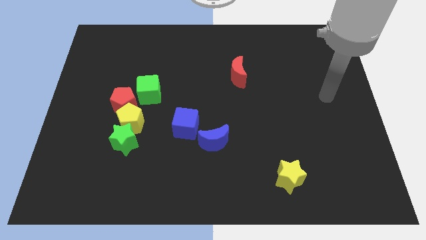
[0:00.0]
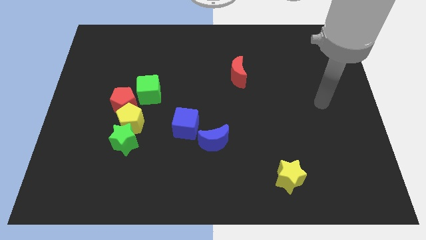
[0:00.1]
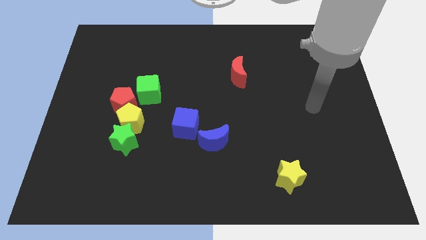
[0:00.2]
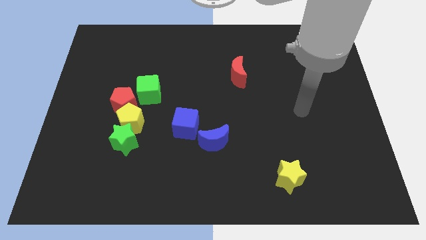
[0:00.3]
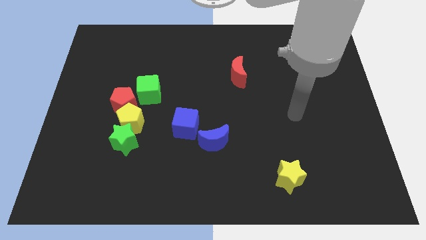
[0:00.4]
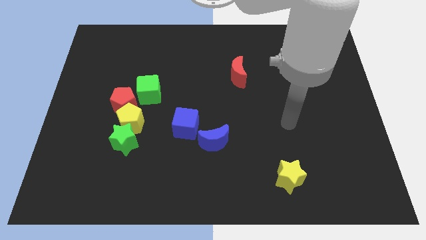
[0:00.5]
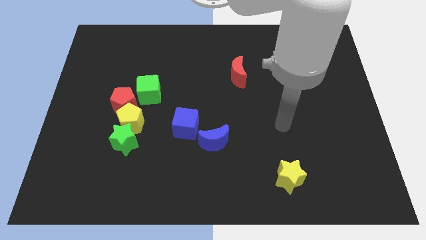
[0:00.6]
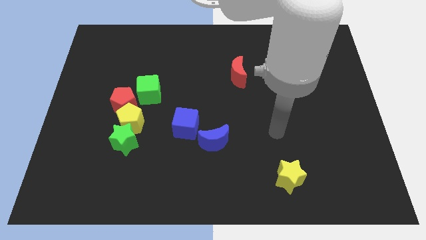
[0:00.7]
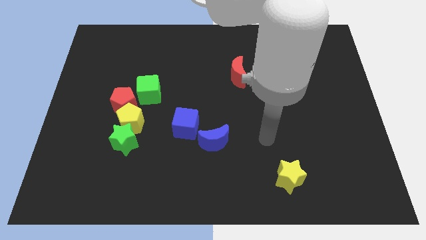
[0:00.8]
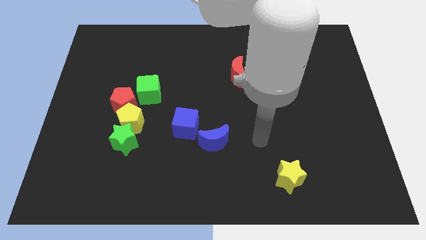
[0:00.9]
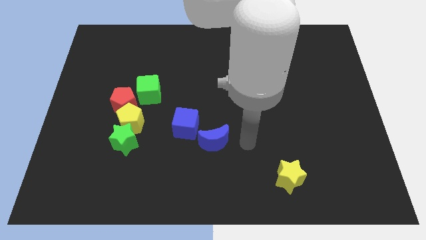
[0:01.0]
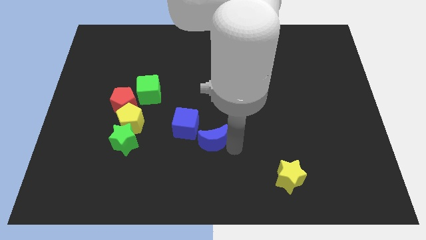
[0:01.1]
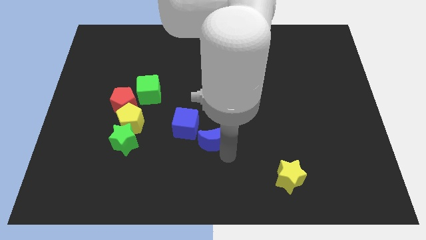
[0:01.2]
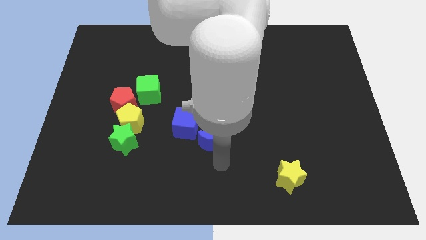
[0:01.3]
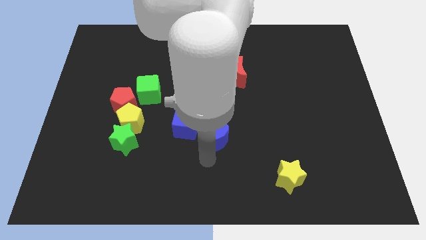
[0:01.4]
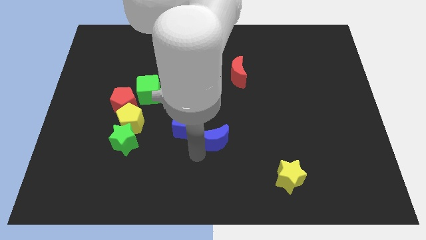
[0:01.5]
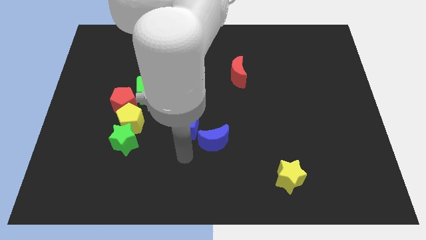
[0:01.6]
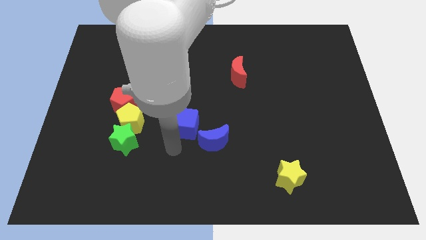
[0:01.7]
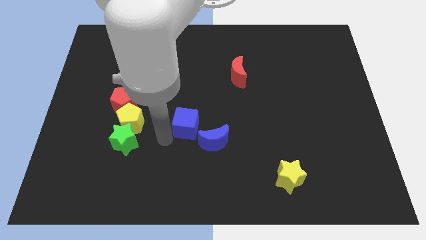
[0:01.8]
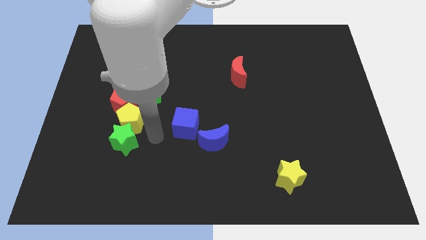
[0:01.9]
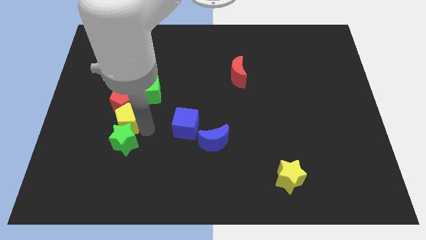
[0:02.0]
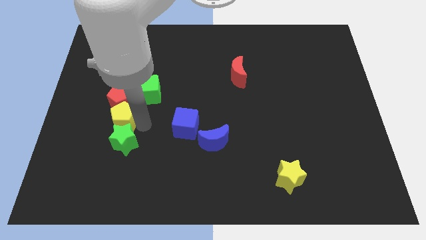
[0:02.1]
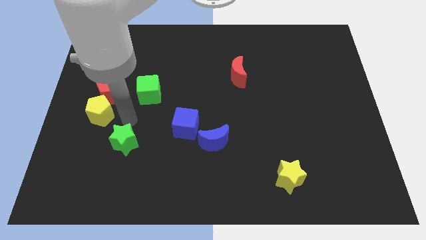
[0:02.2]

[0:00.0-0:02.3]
separate the green star from the yellow pentagon

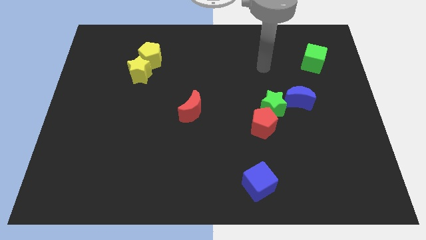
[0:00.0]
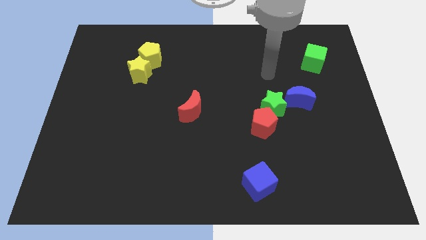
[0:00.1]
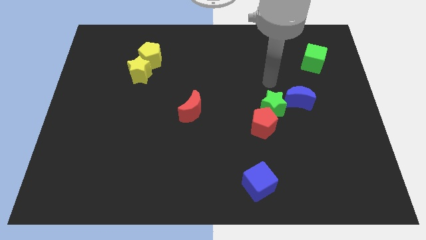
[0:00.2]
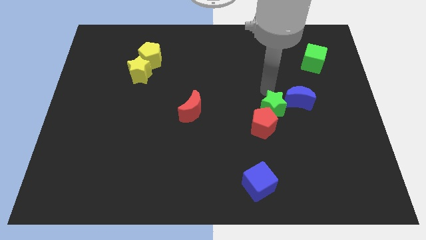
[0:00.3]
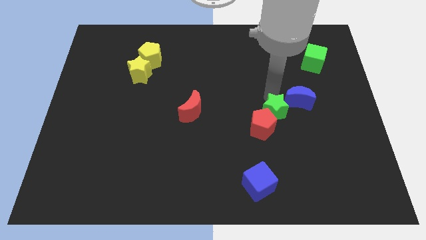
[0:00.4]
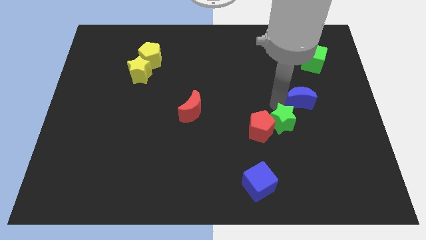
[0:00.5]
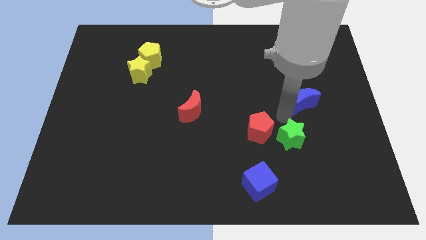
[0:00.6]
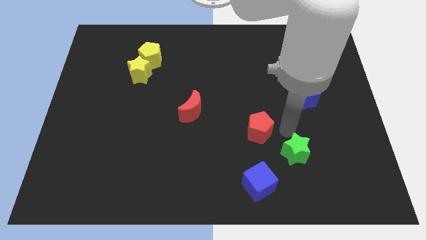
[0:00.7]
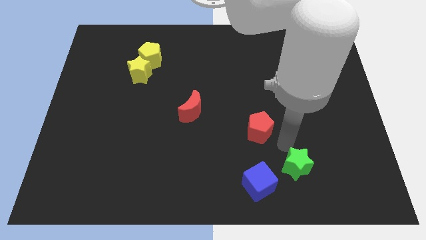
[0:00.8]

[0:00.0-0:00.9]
separate the red pentagon from the green star

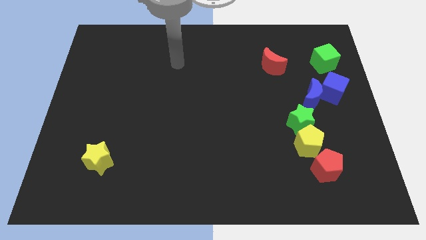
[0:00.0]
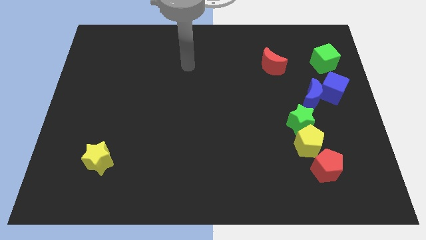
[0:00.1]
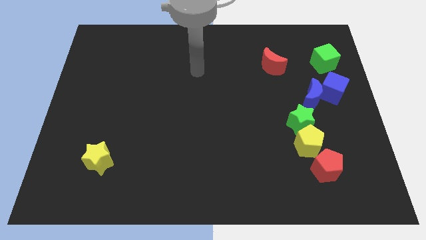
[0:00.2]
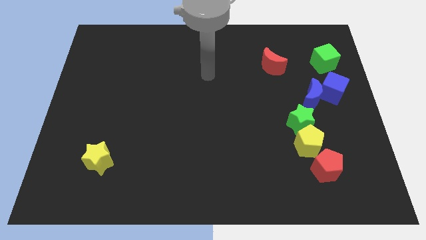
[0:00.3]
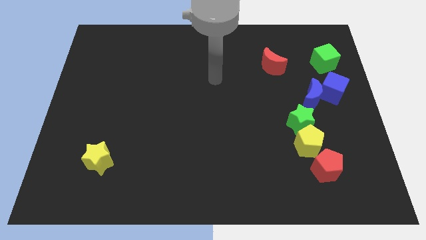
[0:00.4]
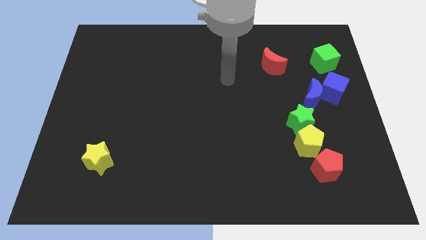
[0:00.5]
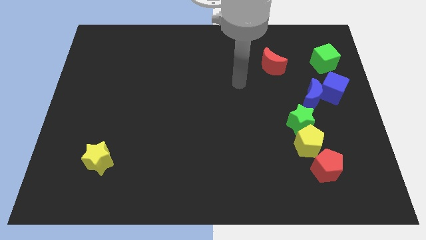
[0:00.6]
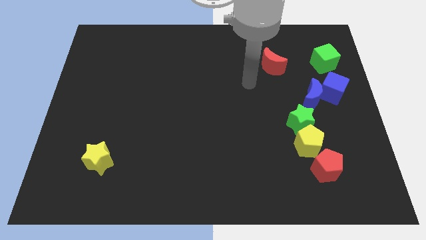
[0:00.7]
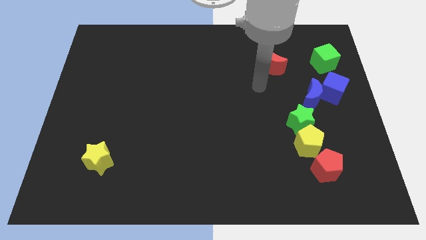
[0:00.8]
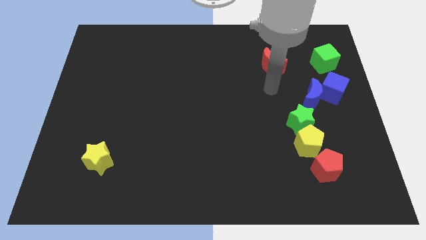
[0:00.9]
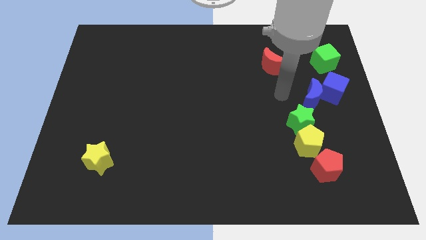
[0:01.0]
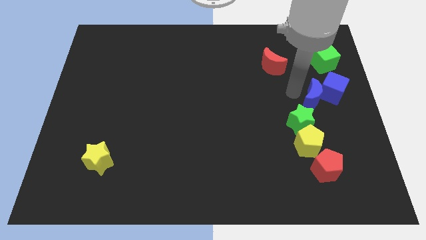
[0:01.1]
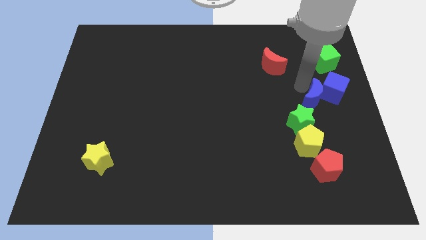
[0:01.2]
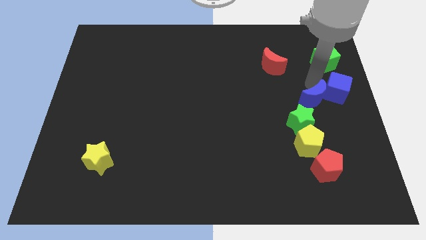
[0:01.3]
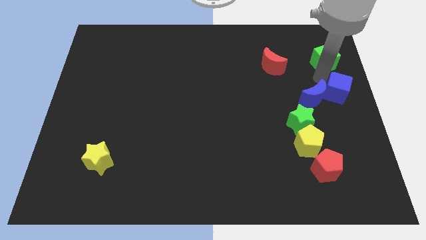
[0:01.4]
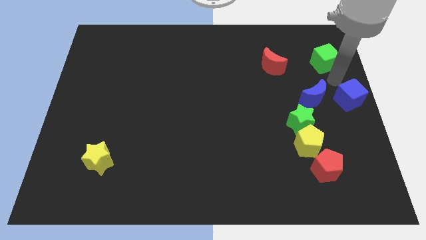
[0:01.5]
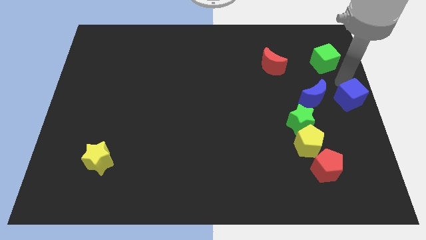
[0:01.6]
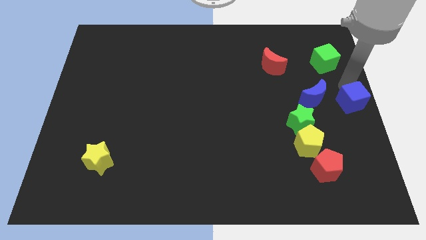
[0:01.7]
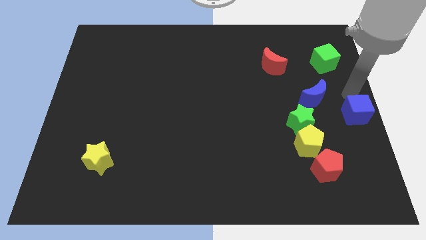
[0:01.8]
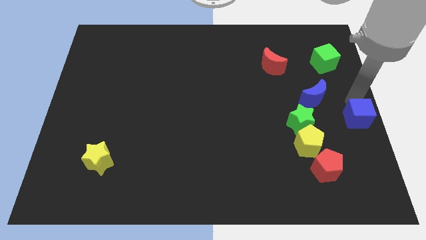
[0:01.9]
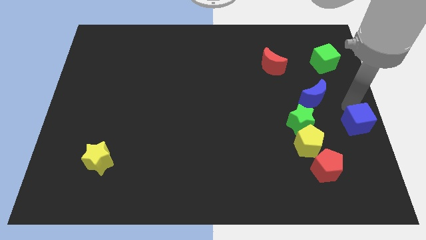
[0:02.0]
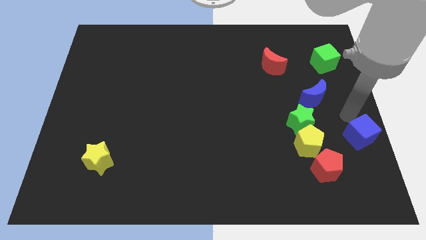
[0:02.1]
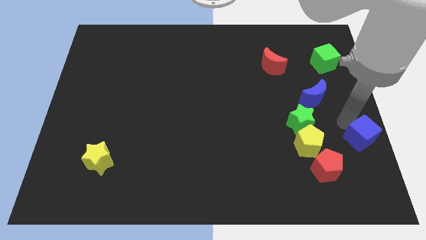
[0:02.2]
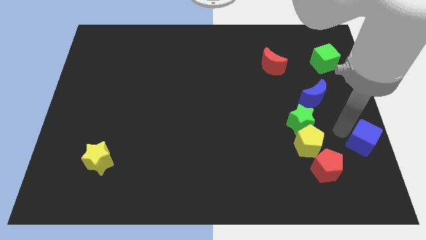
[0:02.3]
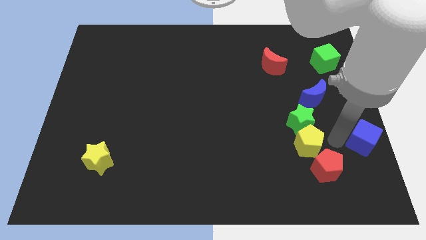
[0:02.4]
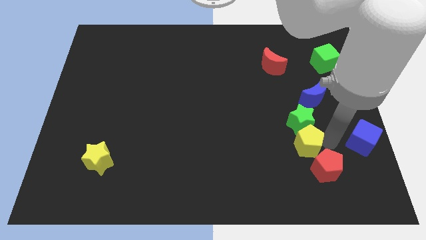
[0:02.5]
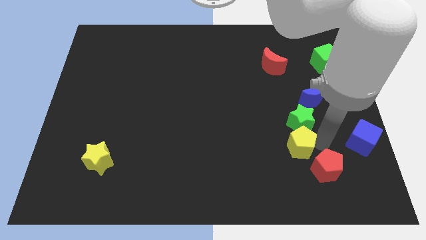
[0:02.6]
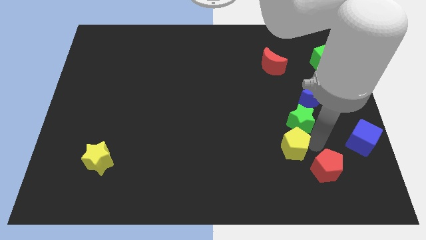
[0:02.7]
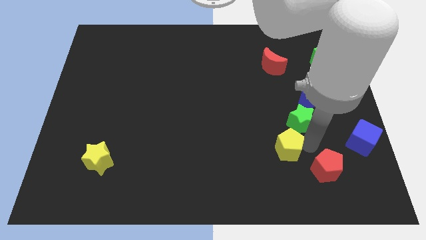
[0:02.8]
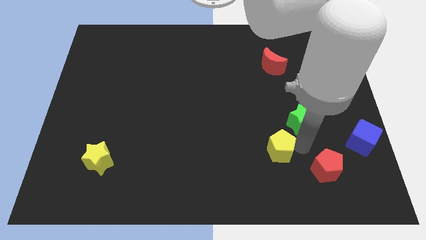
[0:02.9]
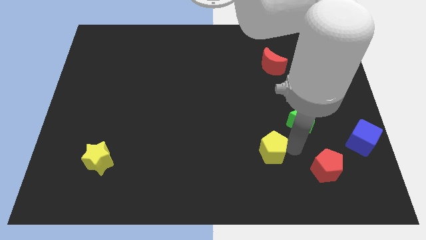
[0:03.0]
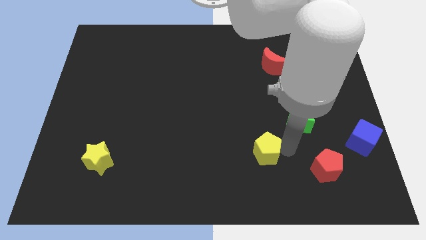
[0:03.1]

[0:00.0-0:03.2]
pull the yellow pentagon apart from the green star and red pentagon

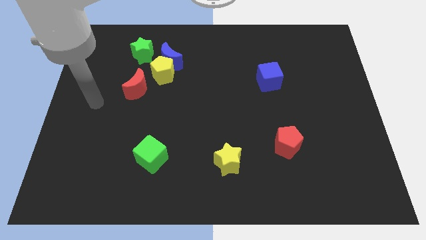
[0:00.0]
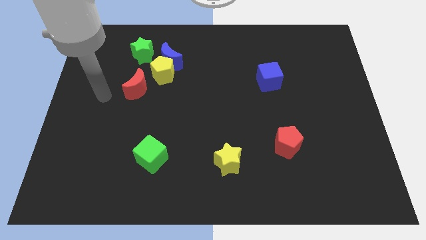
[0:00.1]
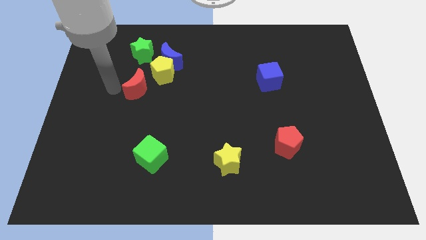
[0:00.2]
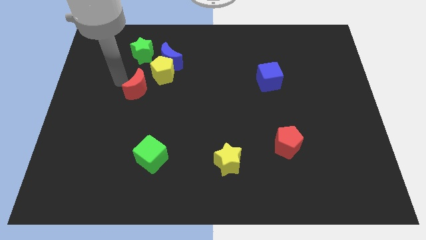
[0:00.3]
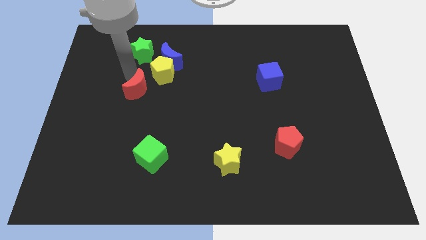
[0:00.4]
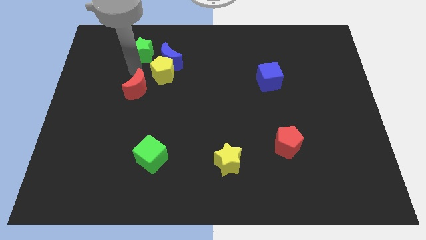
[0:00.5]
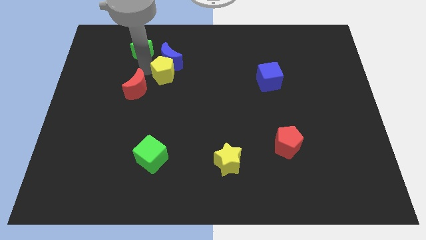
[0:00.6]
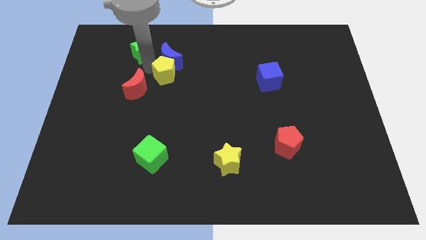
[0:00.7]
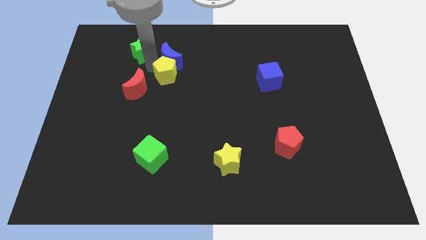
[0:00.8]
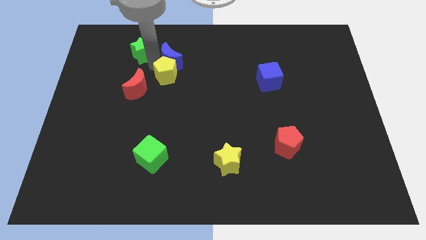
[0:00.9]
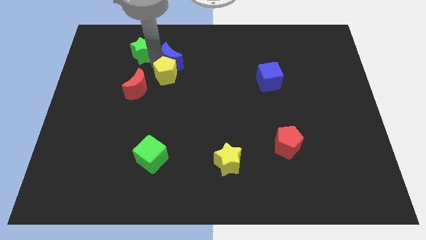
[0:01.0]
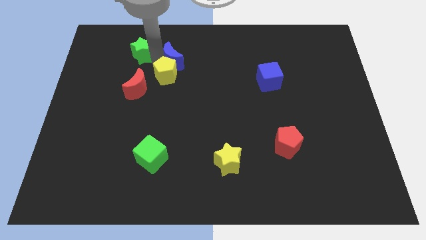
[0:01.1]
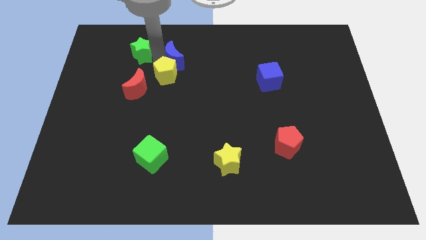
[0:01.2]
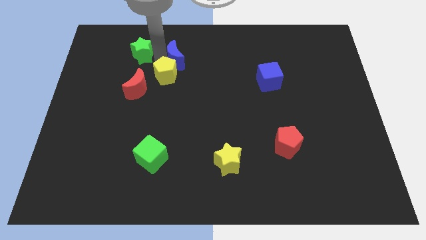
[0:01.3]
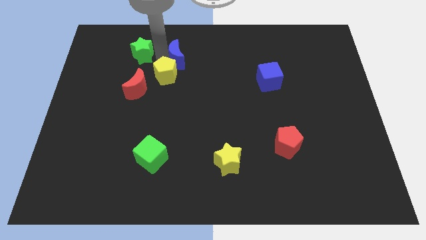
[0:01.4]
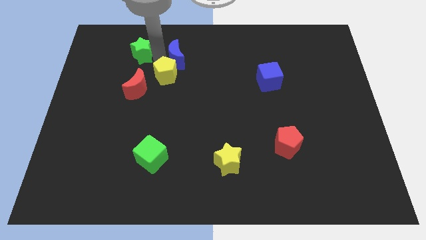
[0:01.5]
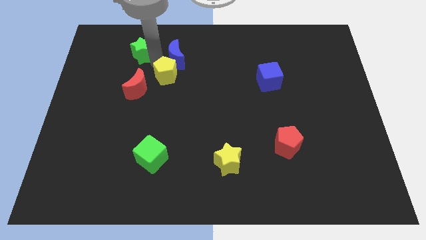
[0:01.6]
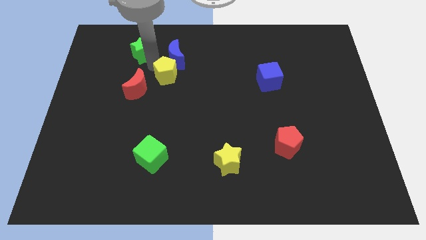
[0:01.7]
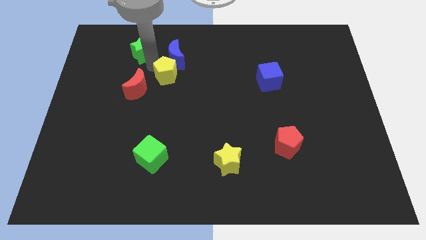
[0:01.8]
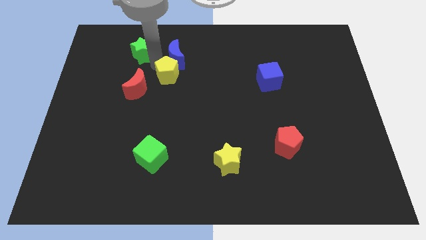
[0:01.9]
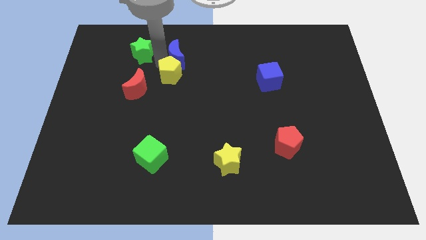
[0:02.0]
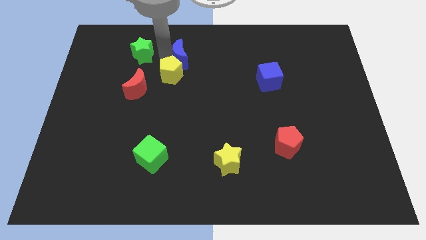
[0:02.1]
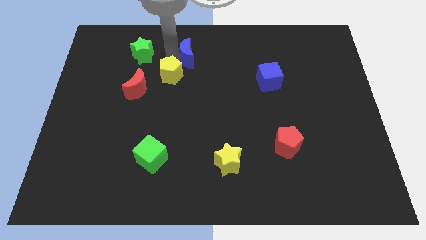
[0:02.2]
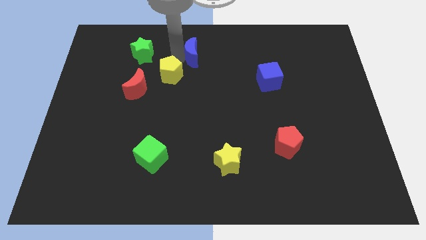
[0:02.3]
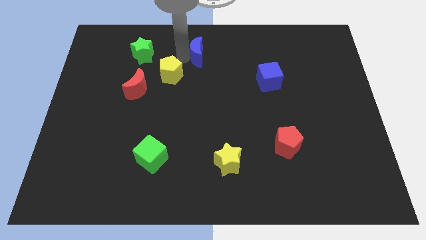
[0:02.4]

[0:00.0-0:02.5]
separate the blue moon from the yellow pentagon and green star

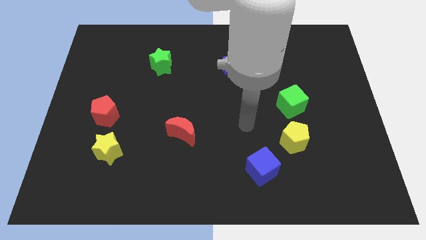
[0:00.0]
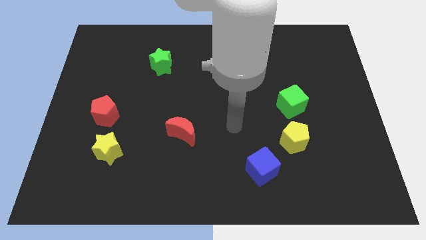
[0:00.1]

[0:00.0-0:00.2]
move the red pentagon away from the yellow star

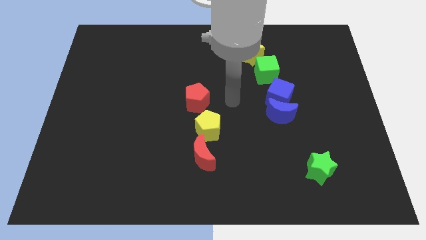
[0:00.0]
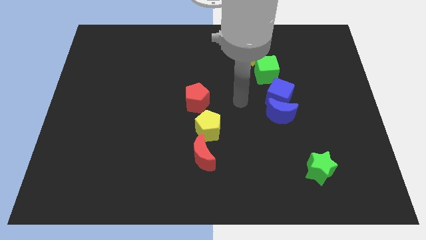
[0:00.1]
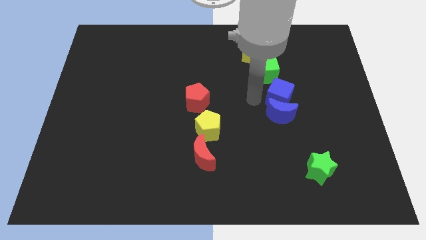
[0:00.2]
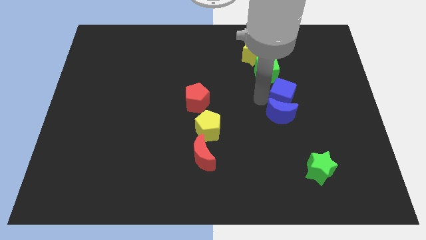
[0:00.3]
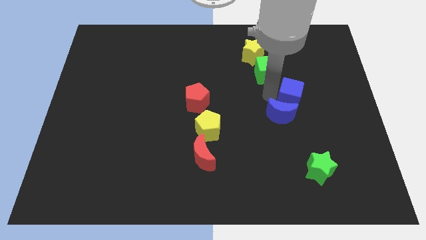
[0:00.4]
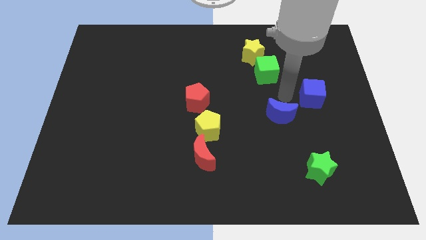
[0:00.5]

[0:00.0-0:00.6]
move the blue moon away from the blue cube
